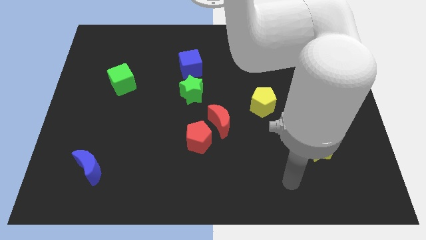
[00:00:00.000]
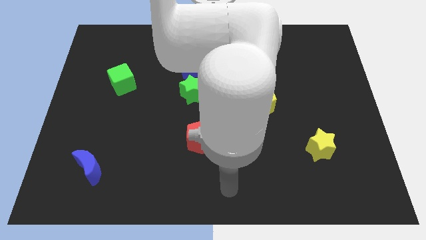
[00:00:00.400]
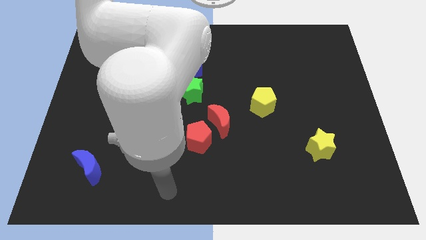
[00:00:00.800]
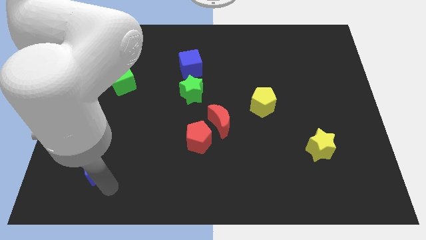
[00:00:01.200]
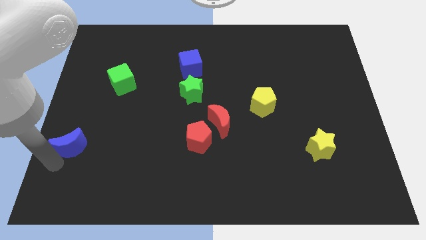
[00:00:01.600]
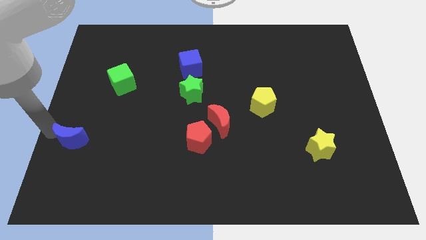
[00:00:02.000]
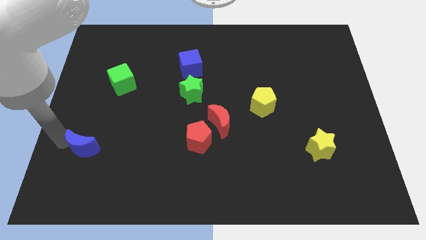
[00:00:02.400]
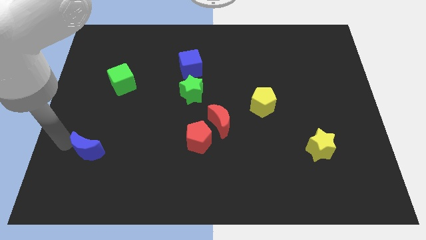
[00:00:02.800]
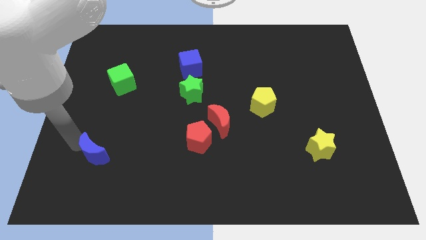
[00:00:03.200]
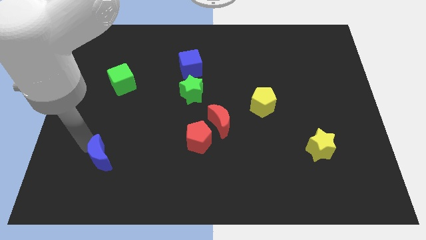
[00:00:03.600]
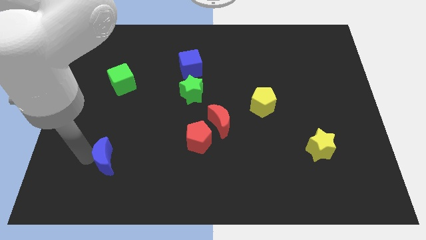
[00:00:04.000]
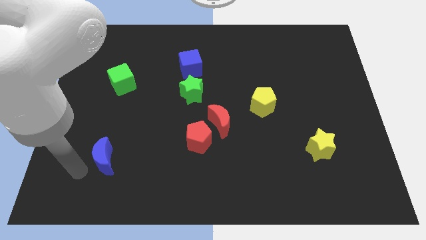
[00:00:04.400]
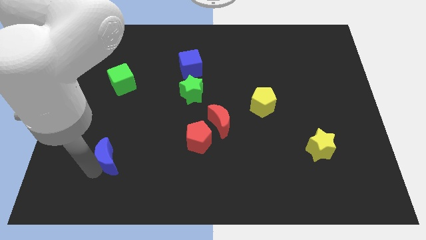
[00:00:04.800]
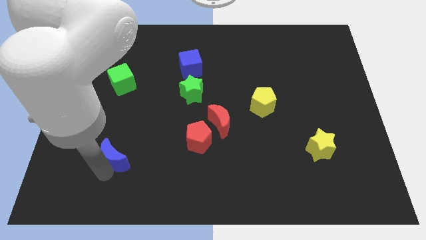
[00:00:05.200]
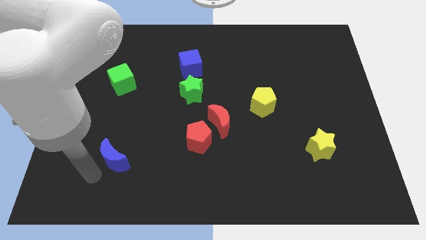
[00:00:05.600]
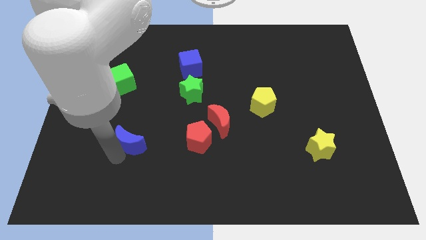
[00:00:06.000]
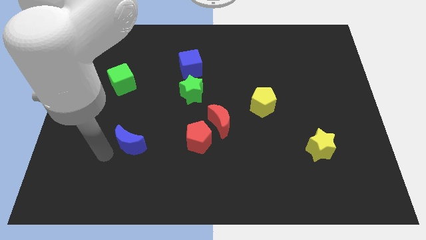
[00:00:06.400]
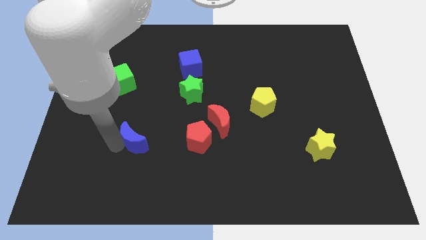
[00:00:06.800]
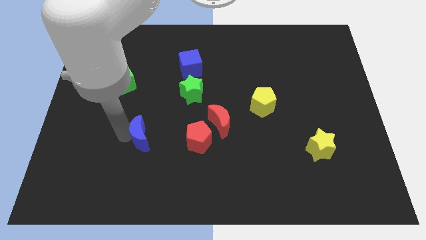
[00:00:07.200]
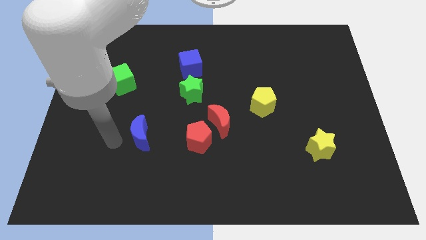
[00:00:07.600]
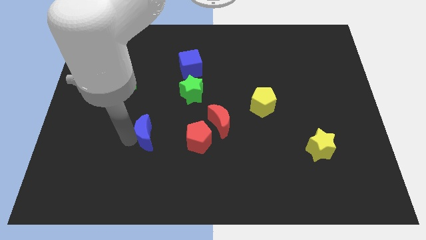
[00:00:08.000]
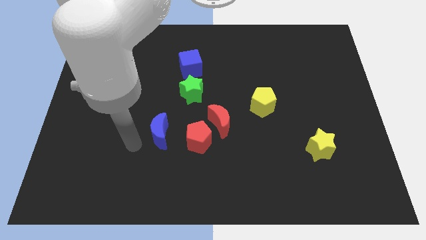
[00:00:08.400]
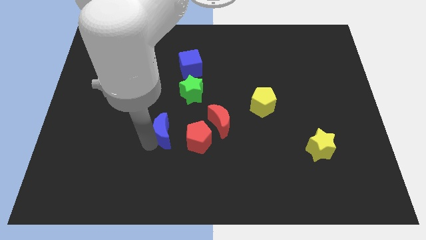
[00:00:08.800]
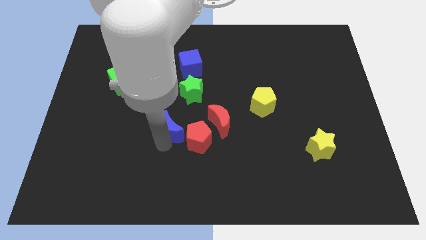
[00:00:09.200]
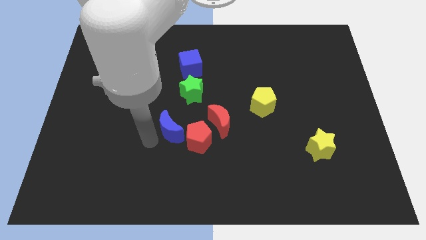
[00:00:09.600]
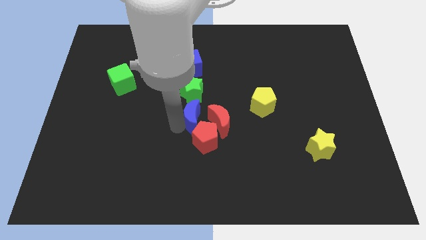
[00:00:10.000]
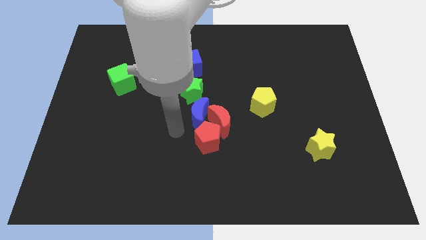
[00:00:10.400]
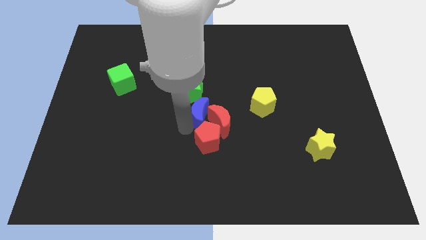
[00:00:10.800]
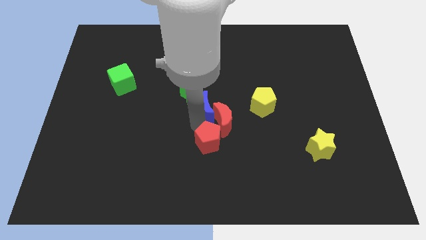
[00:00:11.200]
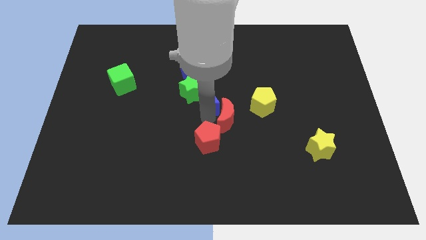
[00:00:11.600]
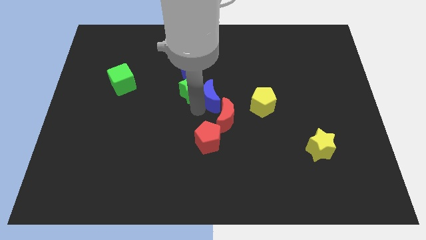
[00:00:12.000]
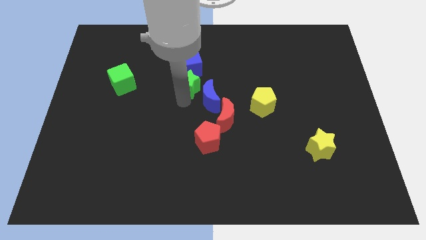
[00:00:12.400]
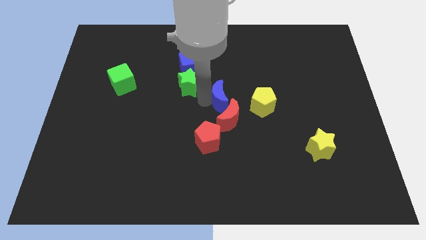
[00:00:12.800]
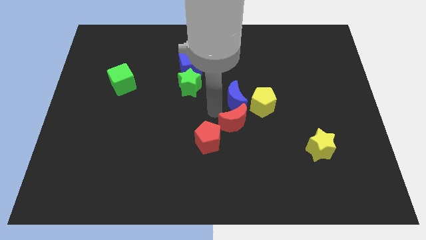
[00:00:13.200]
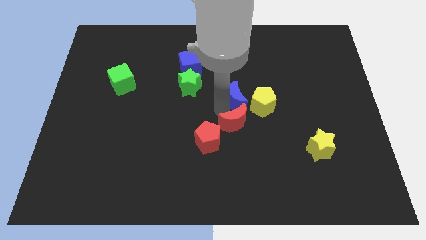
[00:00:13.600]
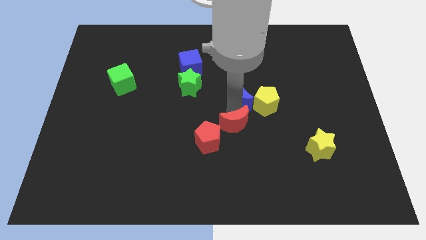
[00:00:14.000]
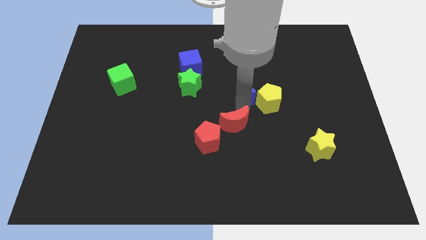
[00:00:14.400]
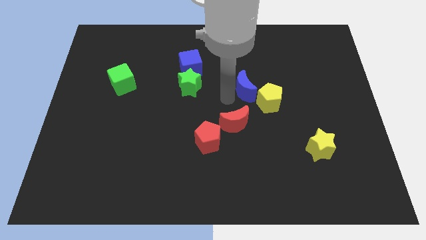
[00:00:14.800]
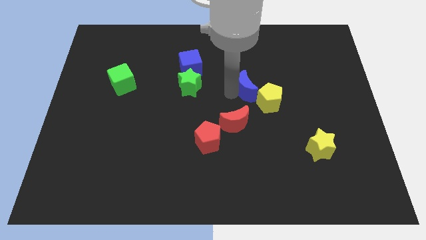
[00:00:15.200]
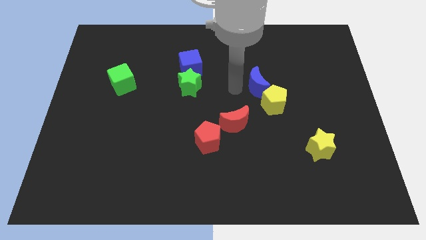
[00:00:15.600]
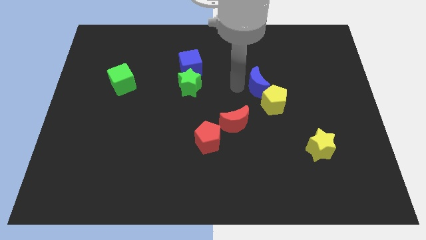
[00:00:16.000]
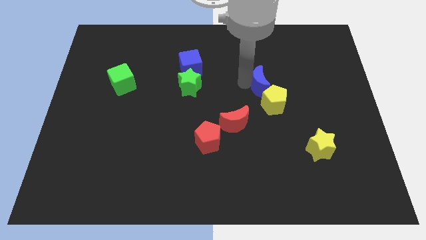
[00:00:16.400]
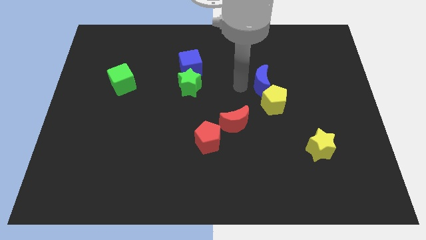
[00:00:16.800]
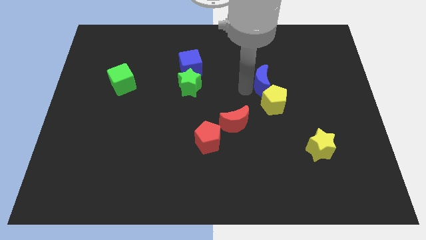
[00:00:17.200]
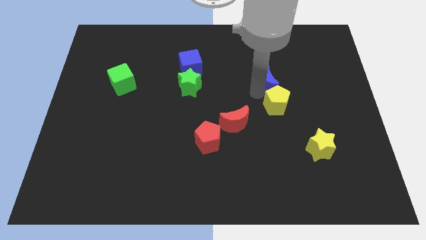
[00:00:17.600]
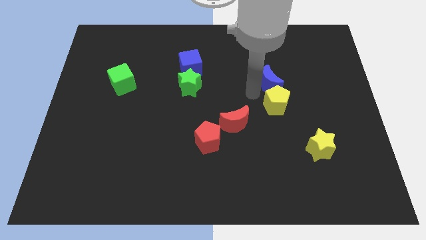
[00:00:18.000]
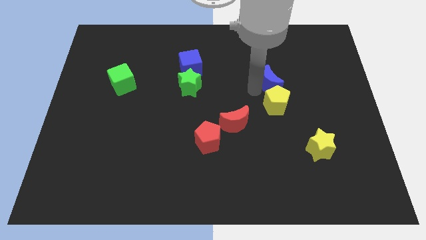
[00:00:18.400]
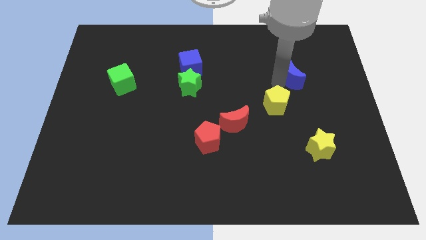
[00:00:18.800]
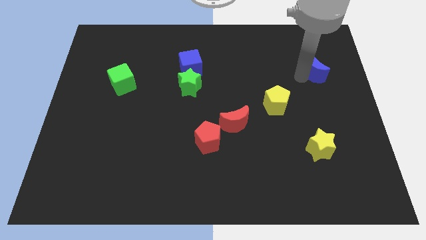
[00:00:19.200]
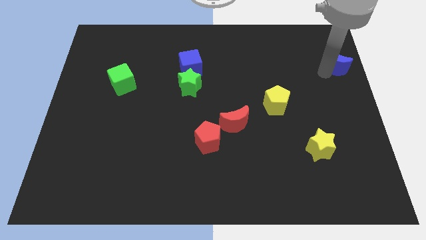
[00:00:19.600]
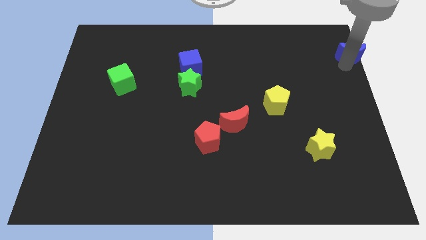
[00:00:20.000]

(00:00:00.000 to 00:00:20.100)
push the blue moon to the top right of the board

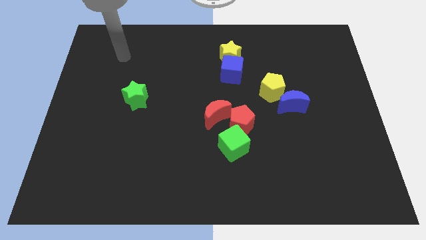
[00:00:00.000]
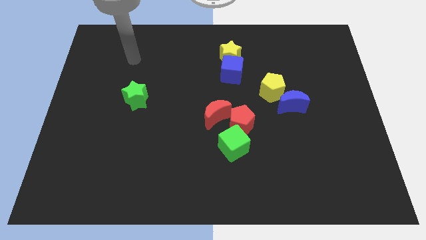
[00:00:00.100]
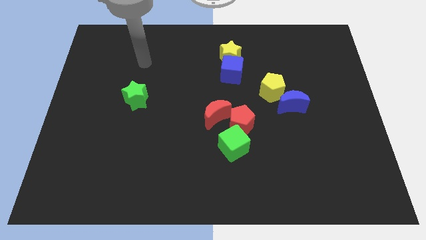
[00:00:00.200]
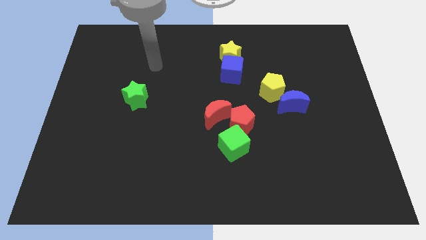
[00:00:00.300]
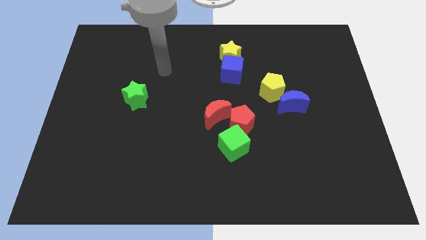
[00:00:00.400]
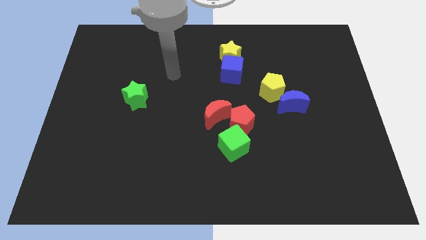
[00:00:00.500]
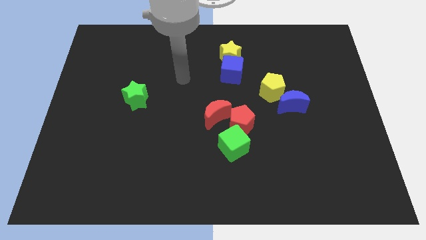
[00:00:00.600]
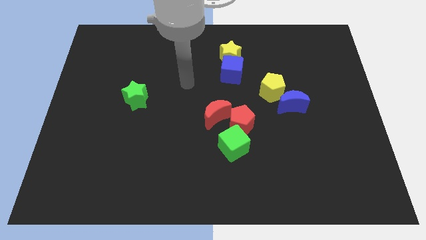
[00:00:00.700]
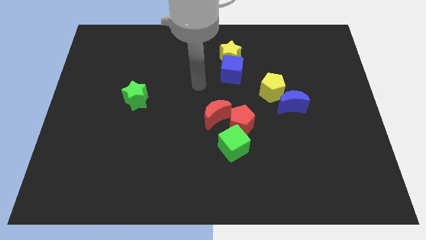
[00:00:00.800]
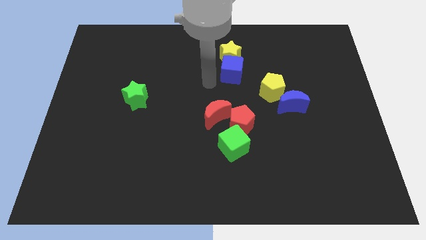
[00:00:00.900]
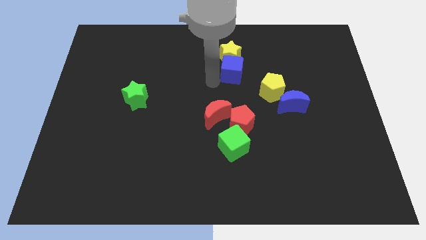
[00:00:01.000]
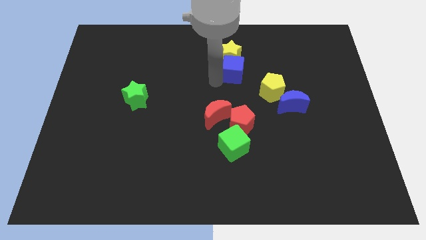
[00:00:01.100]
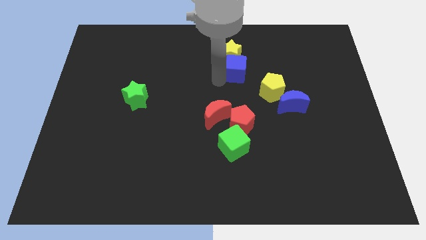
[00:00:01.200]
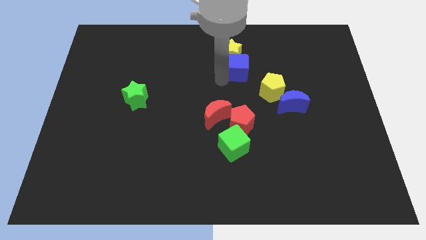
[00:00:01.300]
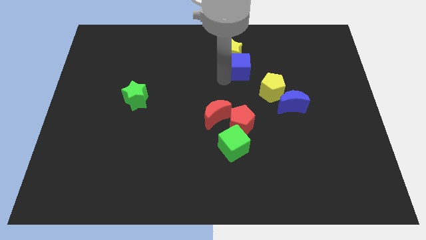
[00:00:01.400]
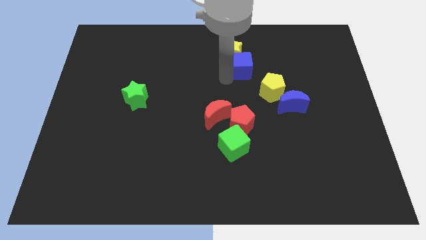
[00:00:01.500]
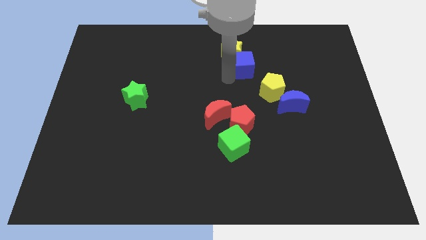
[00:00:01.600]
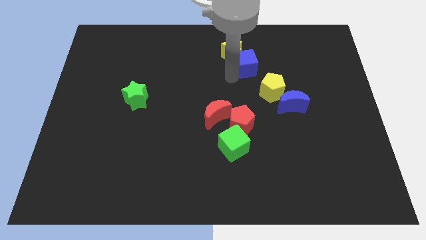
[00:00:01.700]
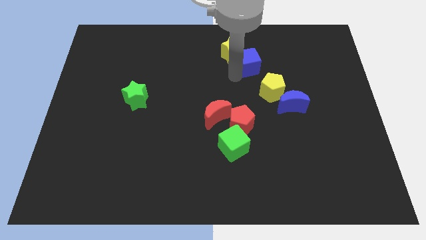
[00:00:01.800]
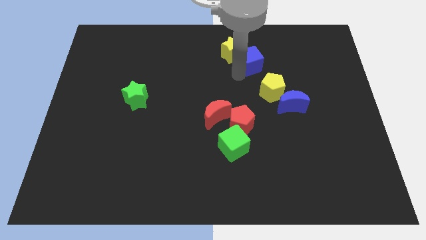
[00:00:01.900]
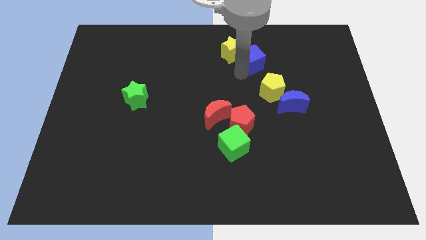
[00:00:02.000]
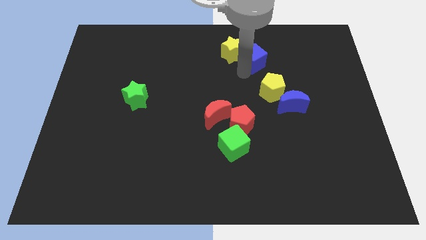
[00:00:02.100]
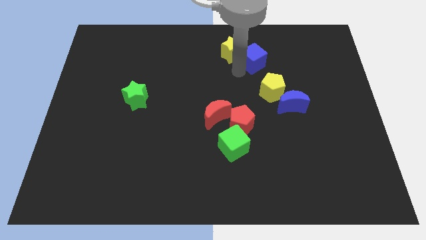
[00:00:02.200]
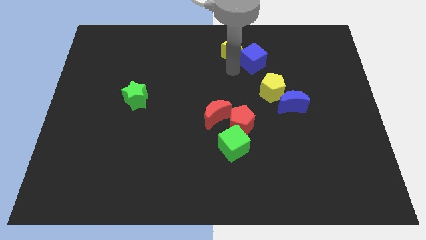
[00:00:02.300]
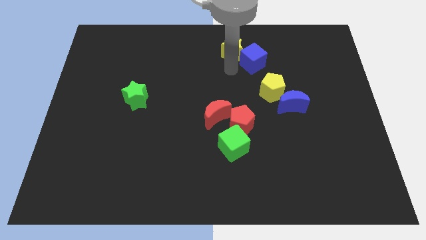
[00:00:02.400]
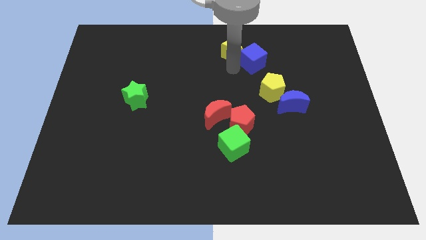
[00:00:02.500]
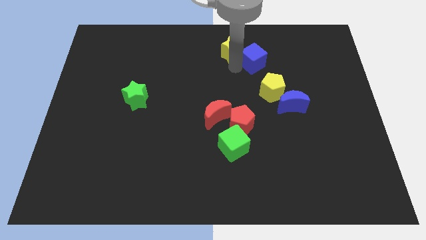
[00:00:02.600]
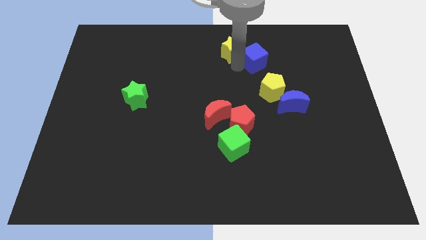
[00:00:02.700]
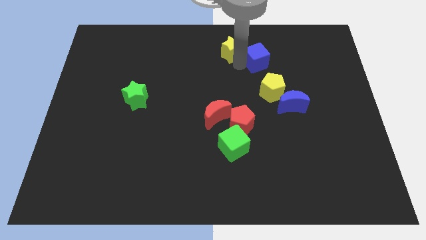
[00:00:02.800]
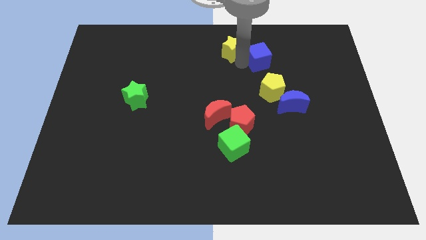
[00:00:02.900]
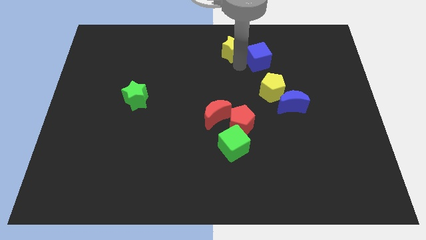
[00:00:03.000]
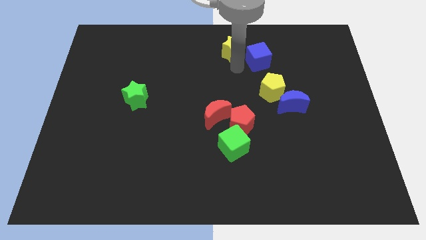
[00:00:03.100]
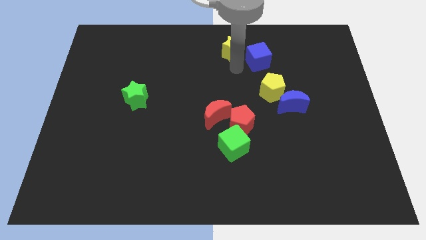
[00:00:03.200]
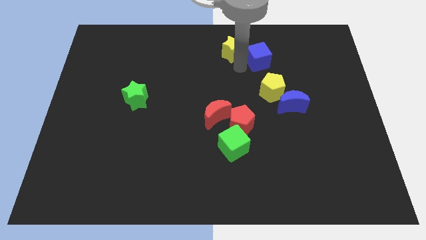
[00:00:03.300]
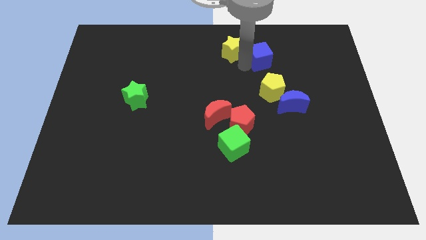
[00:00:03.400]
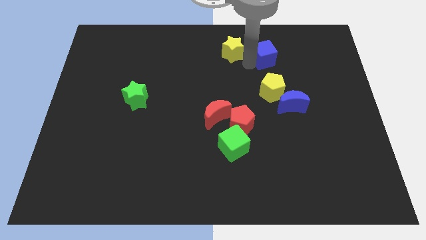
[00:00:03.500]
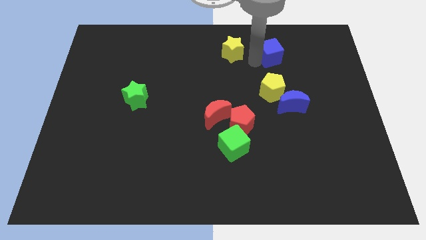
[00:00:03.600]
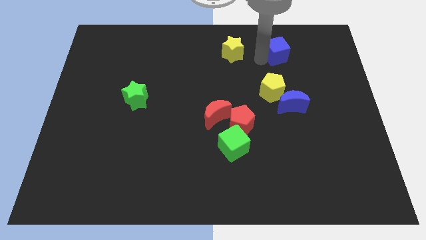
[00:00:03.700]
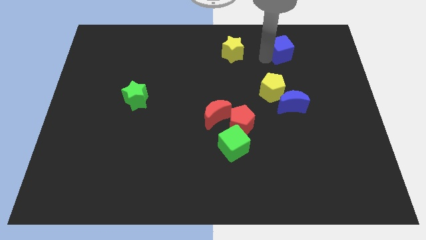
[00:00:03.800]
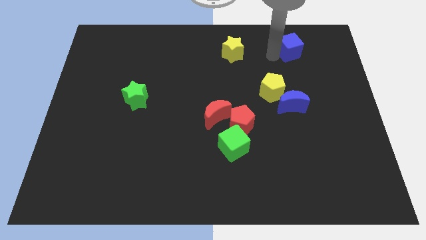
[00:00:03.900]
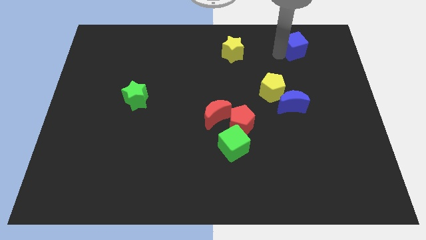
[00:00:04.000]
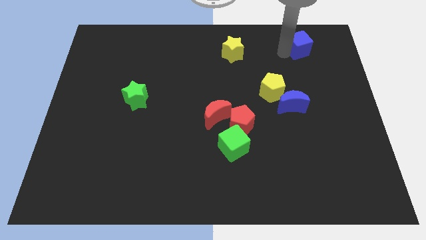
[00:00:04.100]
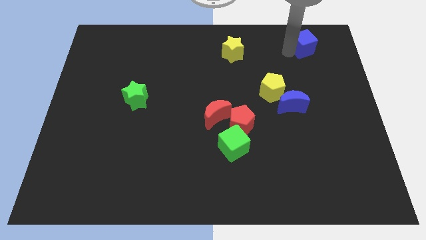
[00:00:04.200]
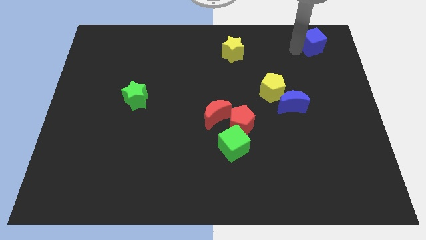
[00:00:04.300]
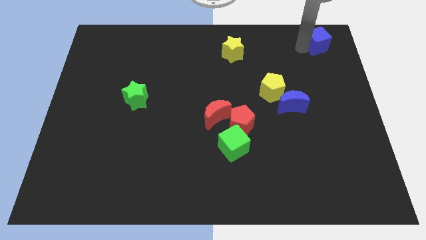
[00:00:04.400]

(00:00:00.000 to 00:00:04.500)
put the blue cube to the top right corner
